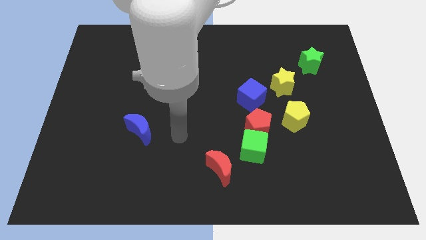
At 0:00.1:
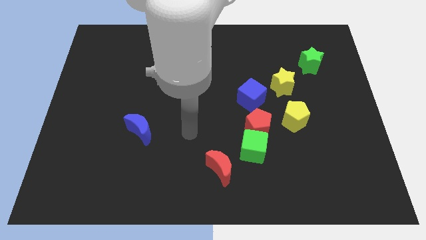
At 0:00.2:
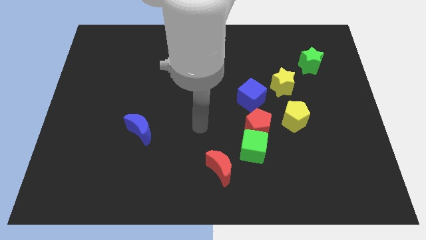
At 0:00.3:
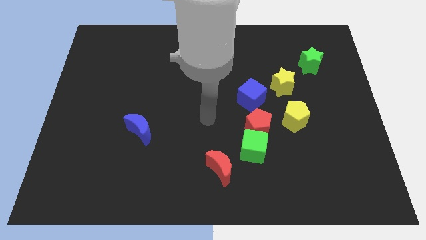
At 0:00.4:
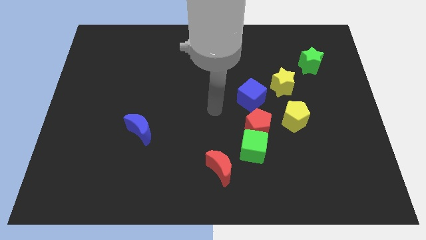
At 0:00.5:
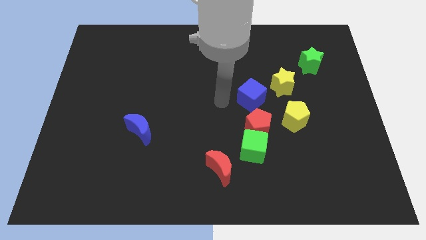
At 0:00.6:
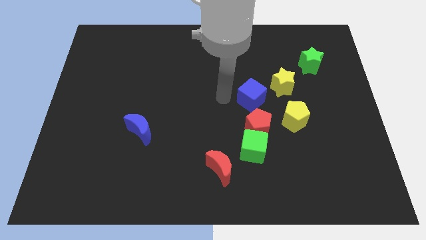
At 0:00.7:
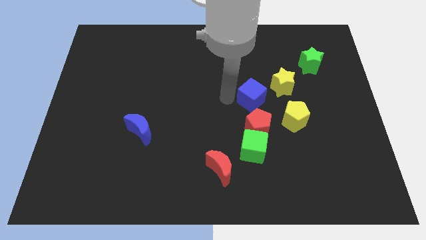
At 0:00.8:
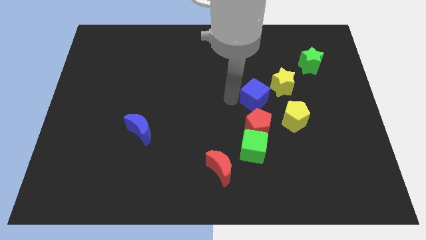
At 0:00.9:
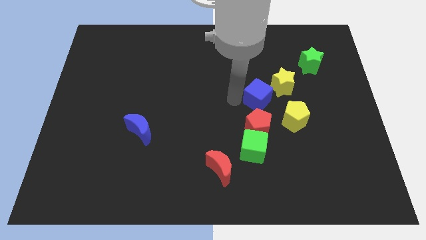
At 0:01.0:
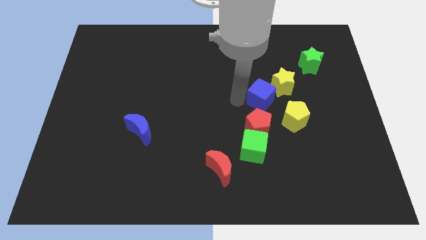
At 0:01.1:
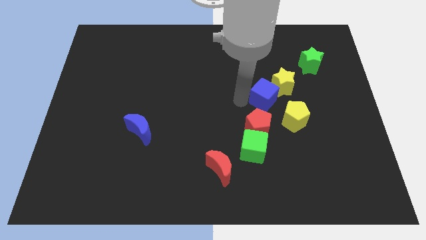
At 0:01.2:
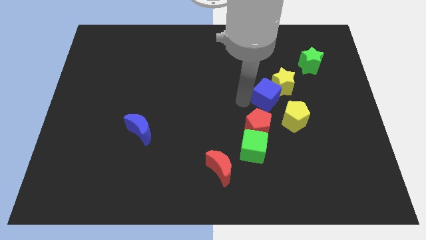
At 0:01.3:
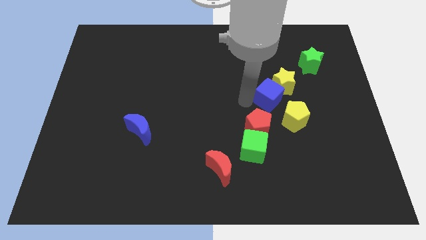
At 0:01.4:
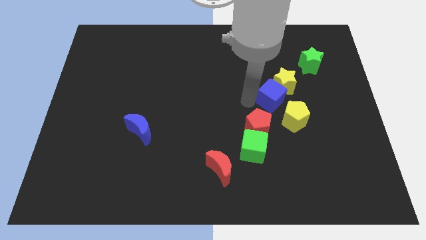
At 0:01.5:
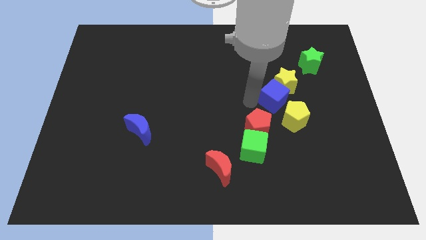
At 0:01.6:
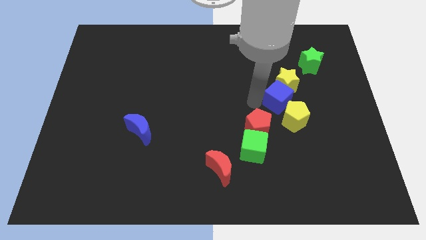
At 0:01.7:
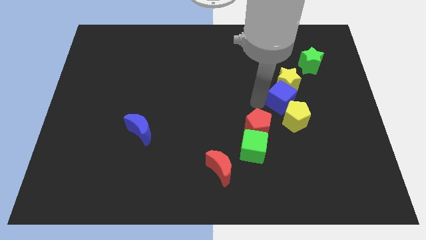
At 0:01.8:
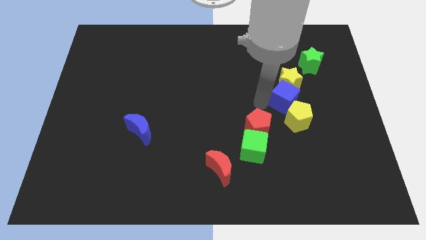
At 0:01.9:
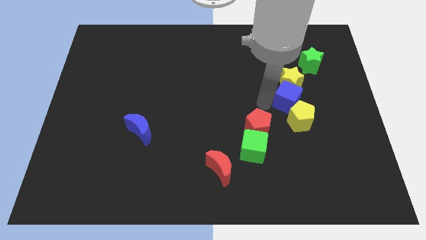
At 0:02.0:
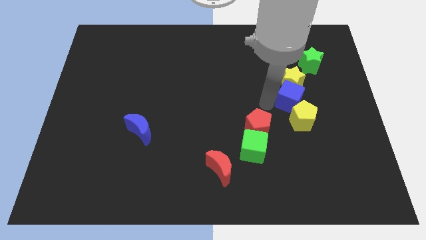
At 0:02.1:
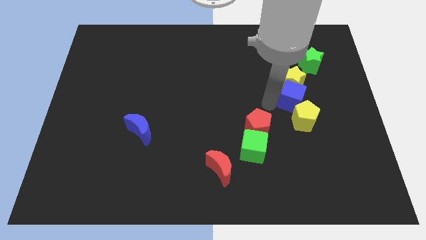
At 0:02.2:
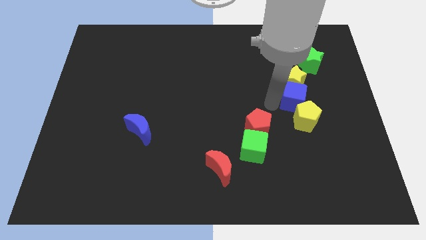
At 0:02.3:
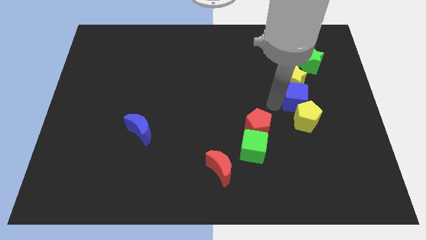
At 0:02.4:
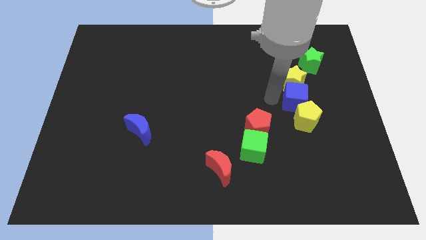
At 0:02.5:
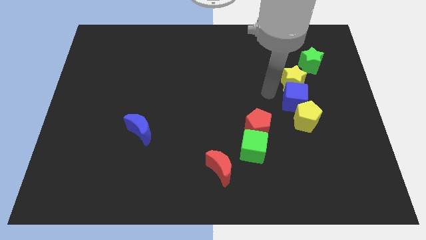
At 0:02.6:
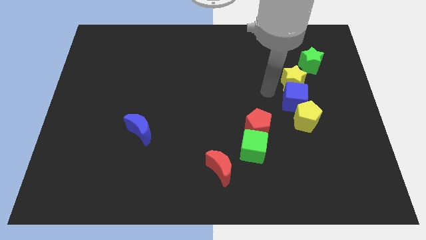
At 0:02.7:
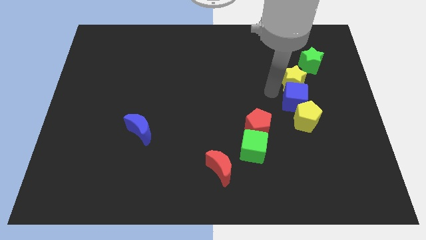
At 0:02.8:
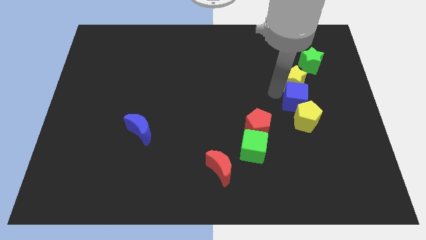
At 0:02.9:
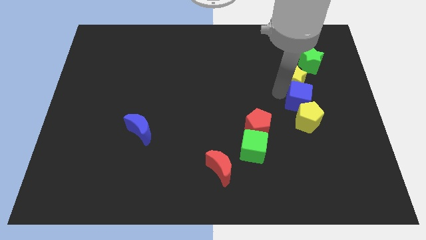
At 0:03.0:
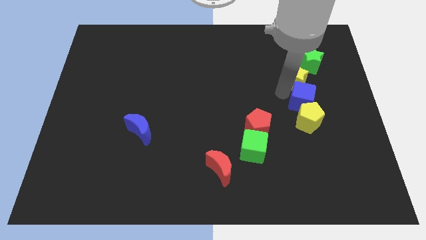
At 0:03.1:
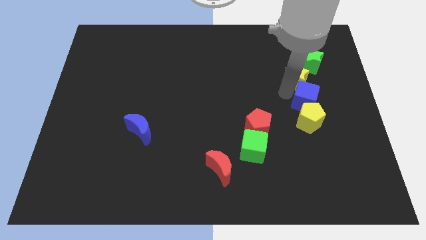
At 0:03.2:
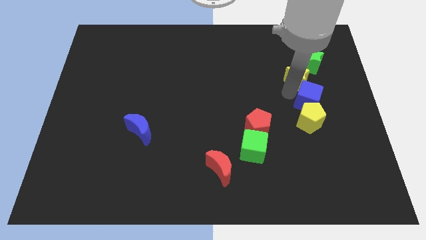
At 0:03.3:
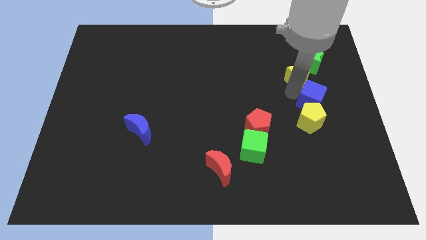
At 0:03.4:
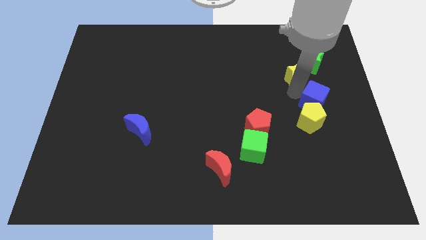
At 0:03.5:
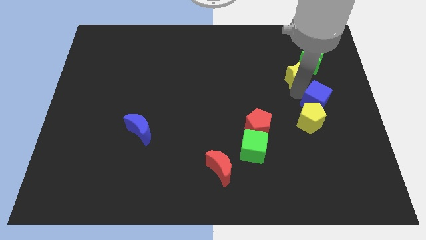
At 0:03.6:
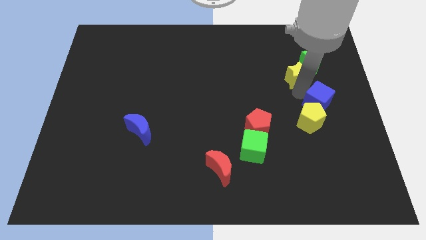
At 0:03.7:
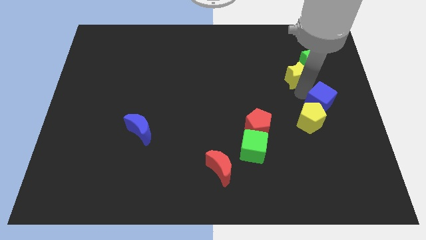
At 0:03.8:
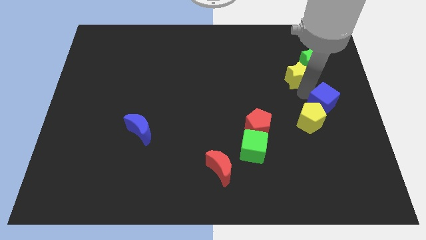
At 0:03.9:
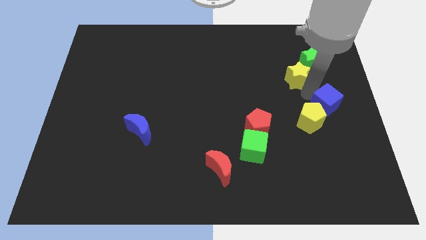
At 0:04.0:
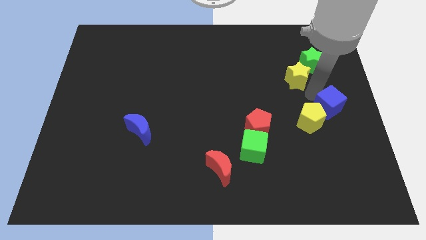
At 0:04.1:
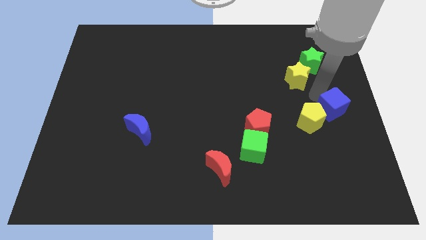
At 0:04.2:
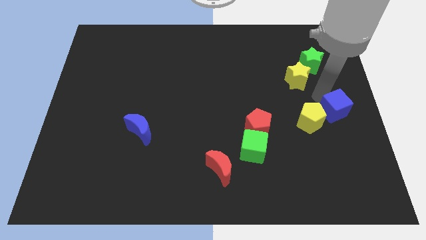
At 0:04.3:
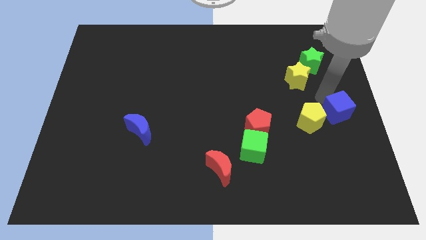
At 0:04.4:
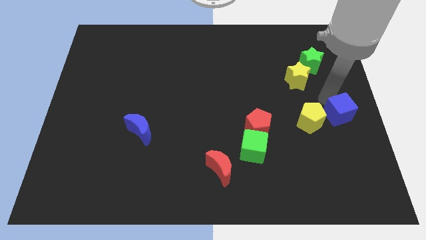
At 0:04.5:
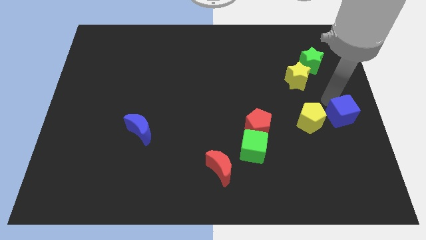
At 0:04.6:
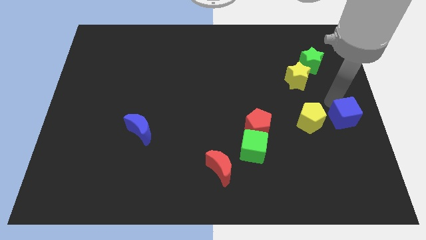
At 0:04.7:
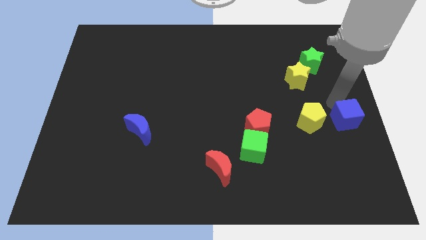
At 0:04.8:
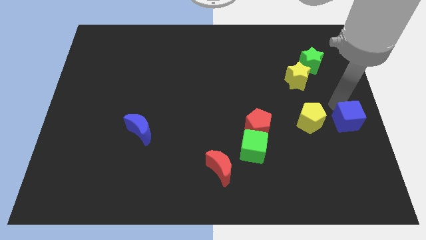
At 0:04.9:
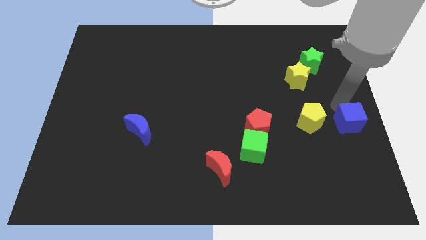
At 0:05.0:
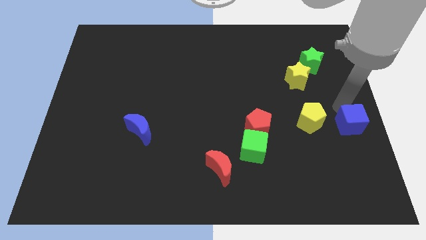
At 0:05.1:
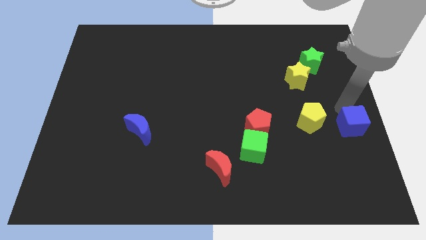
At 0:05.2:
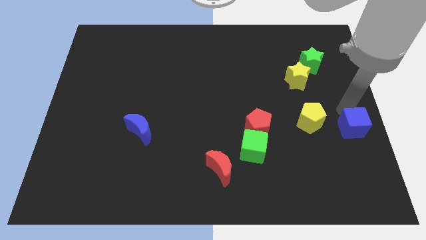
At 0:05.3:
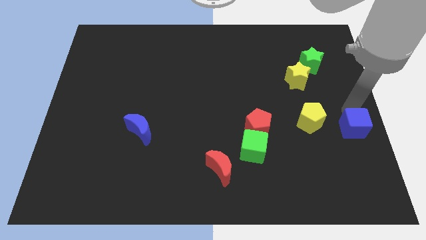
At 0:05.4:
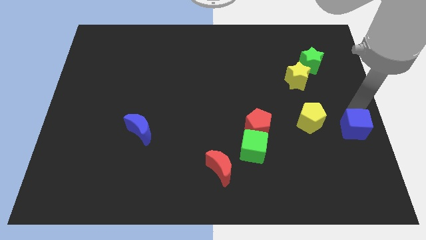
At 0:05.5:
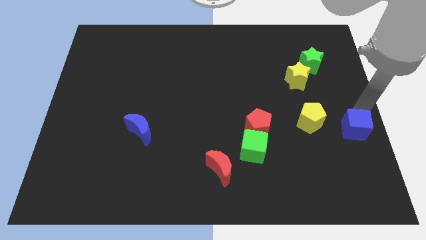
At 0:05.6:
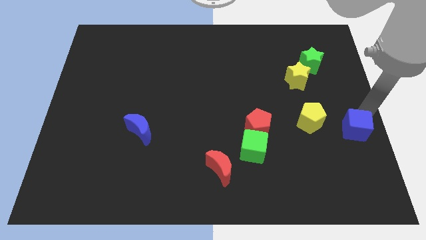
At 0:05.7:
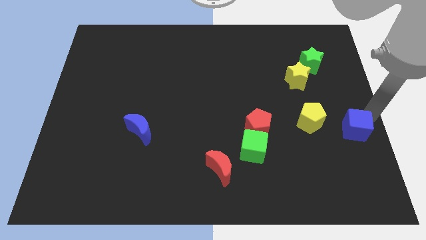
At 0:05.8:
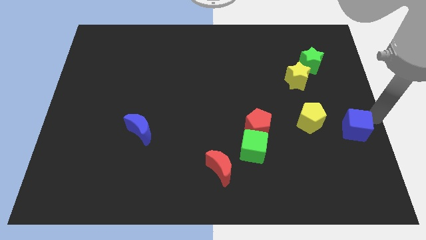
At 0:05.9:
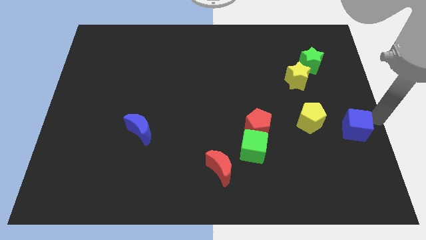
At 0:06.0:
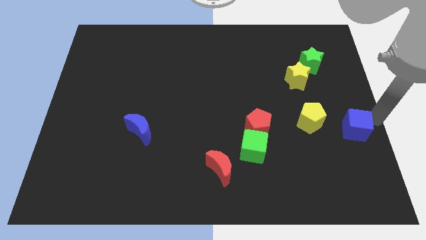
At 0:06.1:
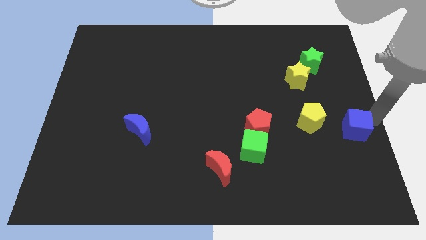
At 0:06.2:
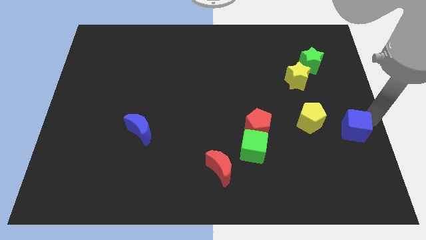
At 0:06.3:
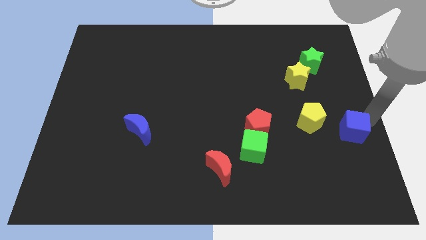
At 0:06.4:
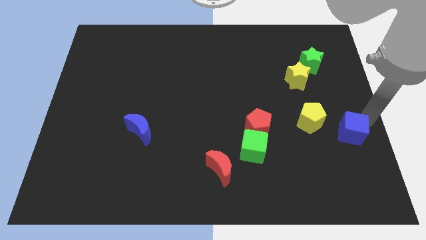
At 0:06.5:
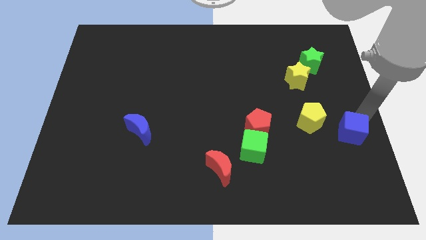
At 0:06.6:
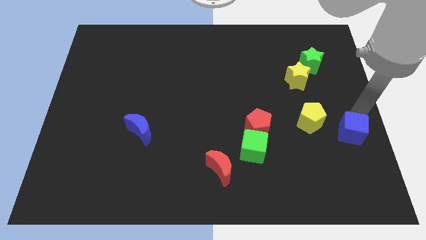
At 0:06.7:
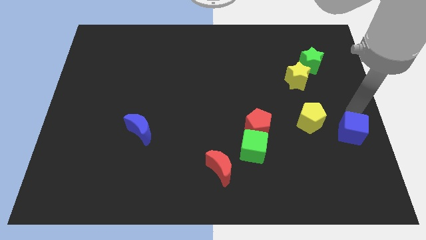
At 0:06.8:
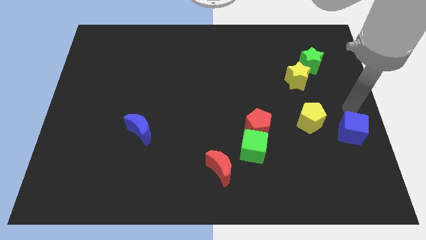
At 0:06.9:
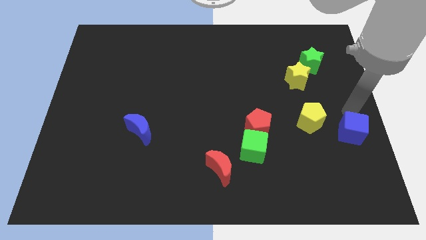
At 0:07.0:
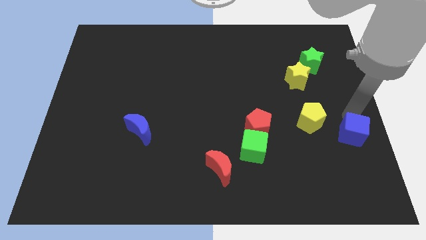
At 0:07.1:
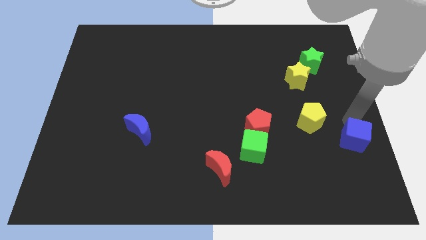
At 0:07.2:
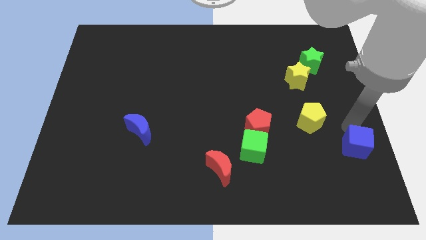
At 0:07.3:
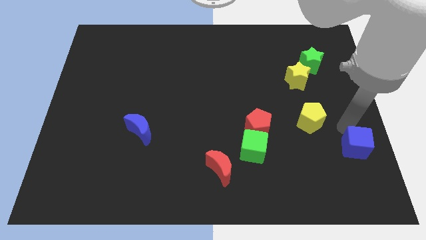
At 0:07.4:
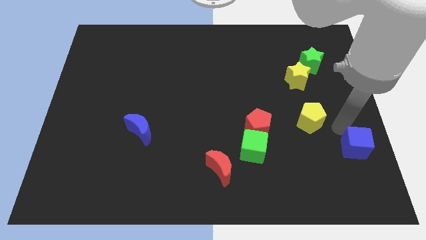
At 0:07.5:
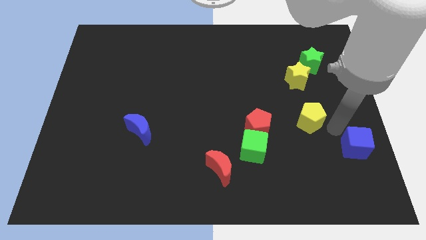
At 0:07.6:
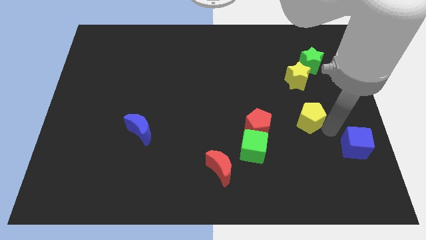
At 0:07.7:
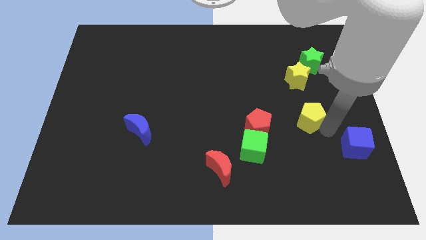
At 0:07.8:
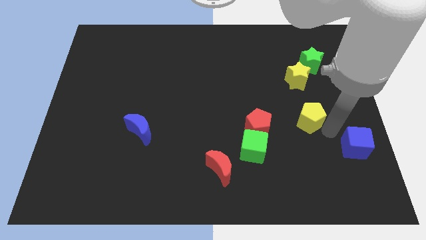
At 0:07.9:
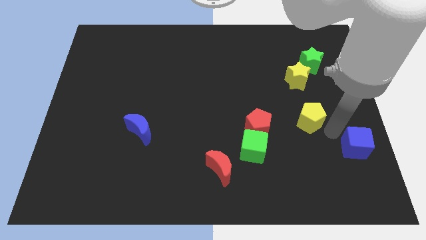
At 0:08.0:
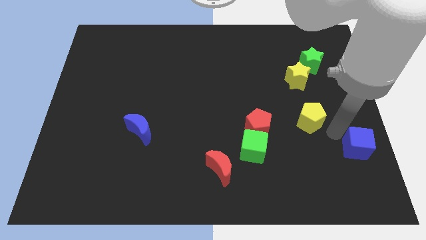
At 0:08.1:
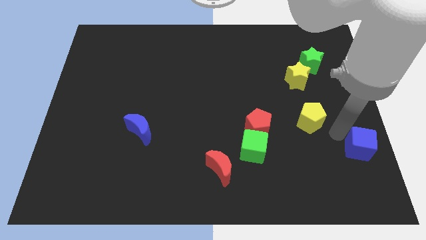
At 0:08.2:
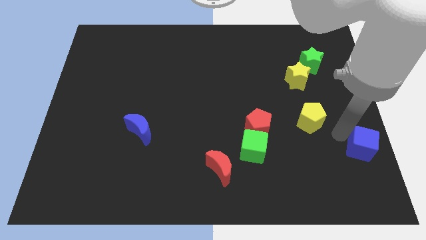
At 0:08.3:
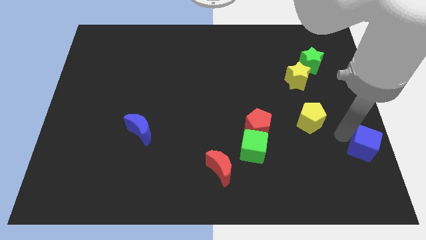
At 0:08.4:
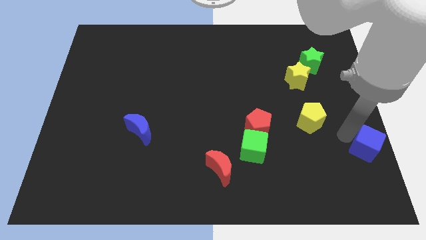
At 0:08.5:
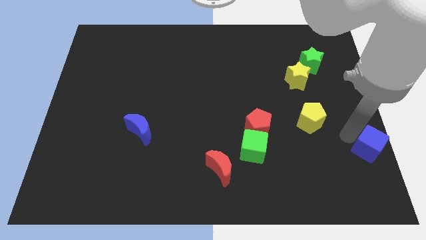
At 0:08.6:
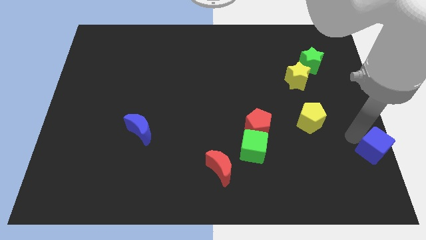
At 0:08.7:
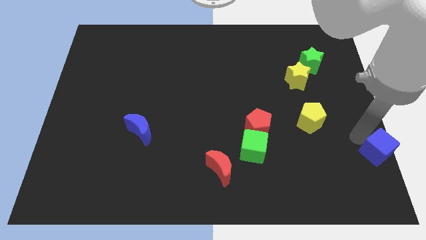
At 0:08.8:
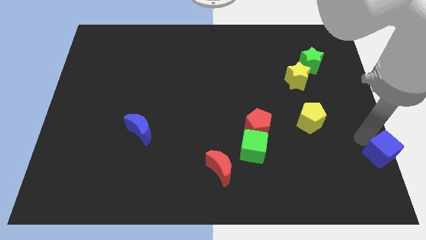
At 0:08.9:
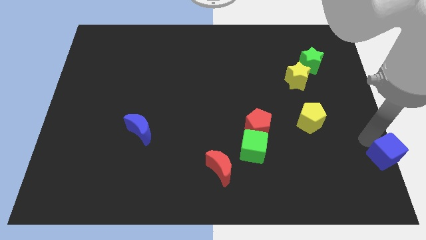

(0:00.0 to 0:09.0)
slide the blue cube to the bottom right
